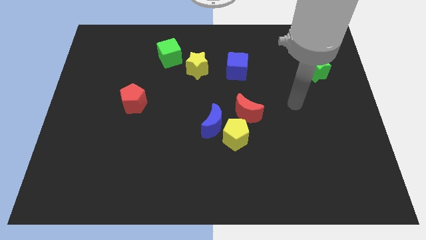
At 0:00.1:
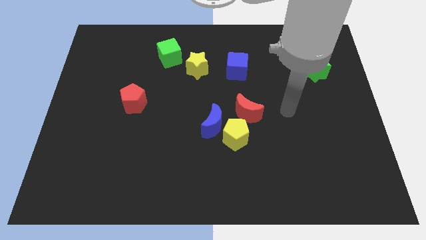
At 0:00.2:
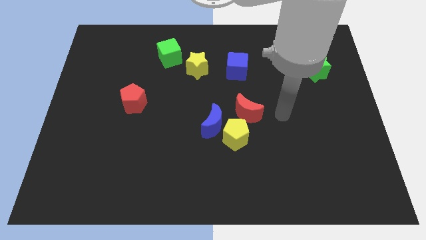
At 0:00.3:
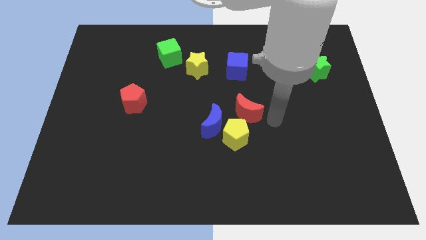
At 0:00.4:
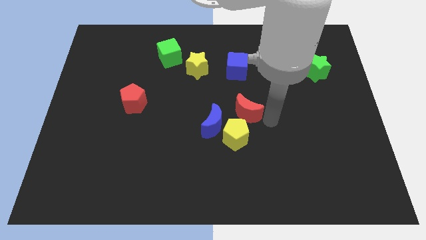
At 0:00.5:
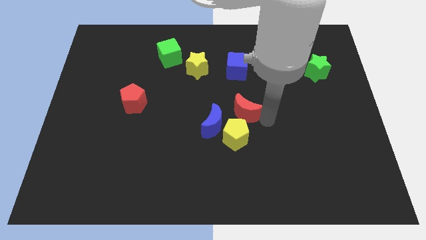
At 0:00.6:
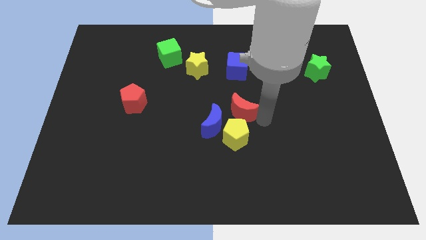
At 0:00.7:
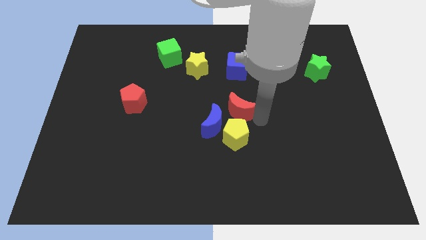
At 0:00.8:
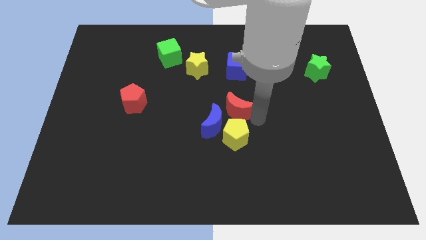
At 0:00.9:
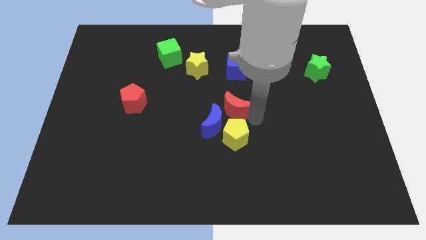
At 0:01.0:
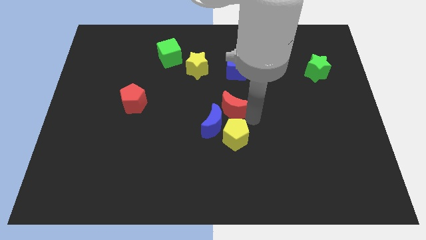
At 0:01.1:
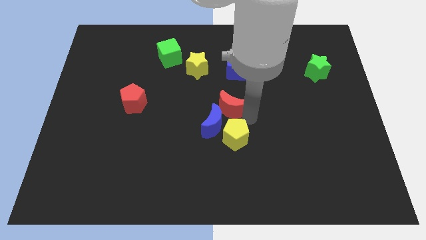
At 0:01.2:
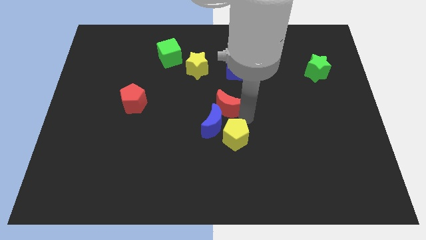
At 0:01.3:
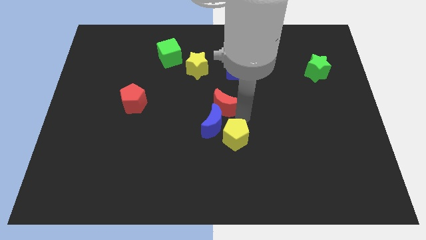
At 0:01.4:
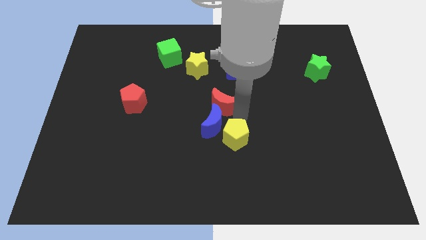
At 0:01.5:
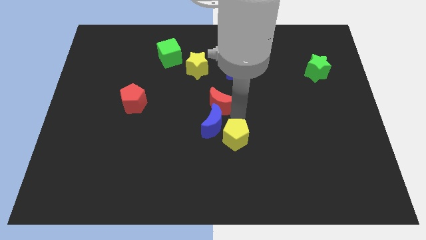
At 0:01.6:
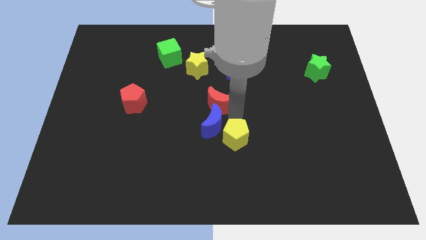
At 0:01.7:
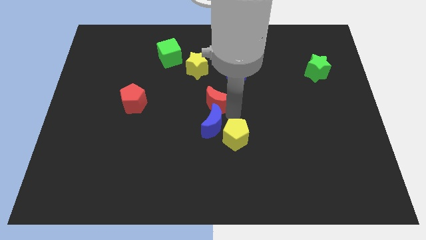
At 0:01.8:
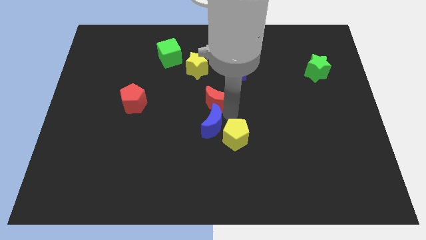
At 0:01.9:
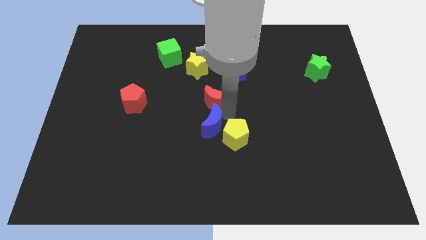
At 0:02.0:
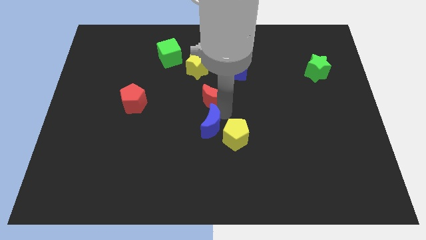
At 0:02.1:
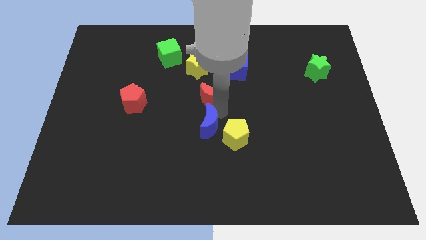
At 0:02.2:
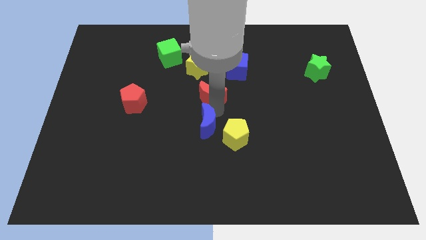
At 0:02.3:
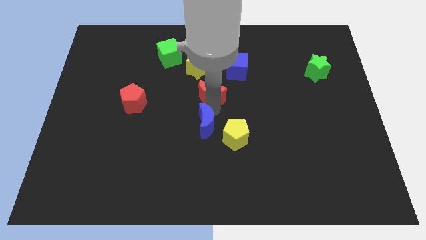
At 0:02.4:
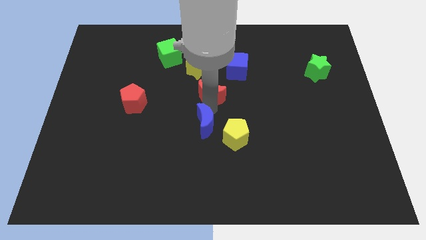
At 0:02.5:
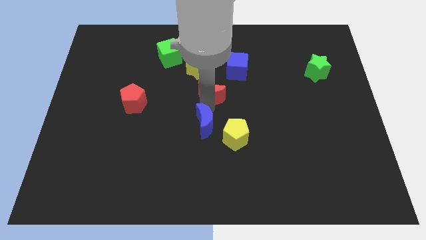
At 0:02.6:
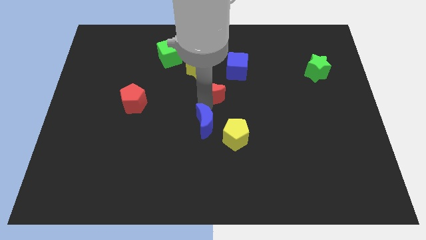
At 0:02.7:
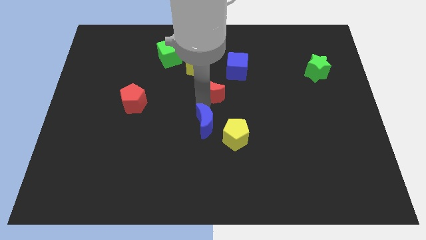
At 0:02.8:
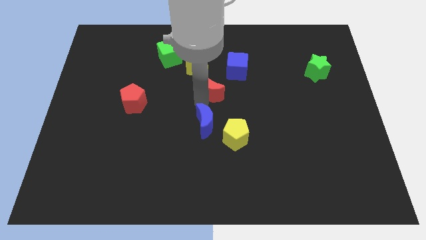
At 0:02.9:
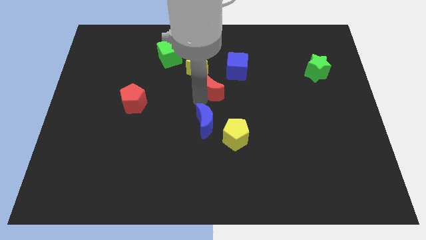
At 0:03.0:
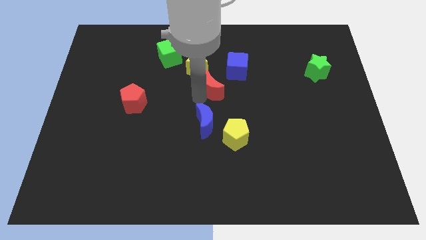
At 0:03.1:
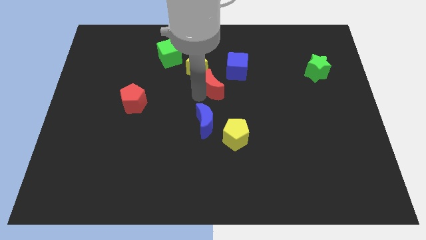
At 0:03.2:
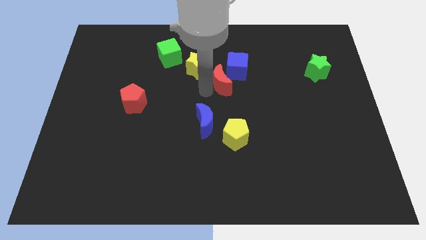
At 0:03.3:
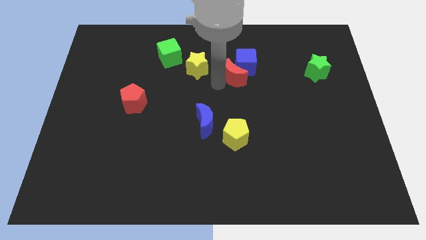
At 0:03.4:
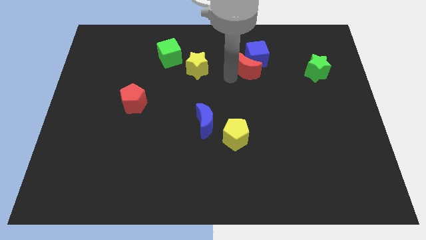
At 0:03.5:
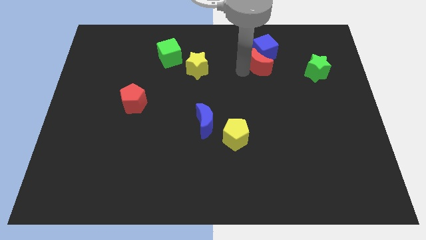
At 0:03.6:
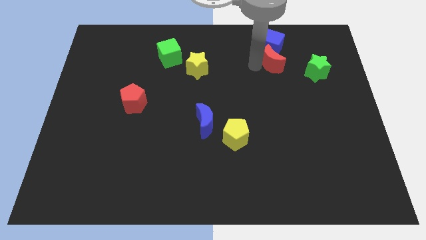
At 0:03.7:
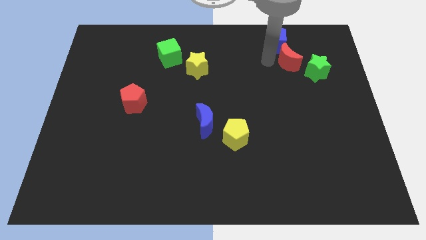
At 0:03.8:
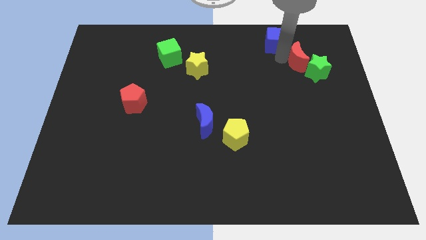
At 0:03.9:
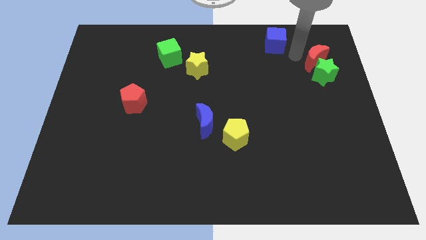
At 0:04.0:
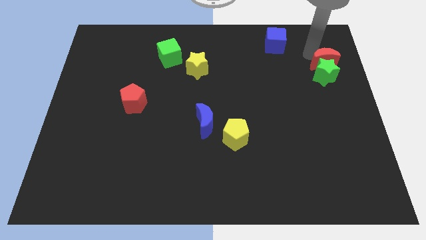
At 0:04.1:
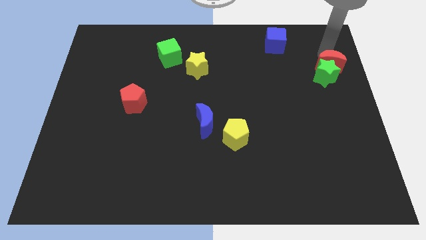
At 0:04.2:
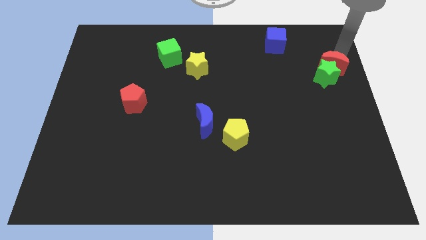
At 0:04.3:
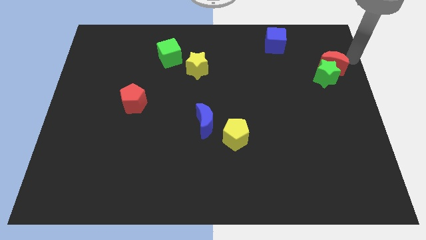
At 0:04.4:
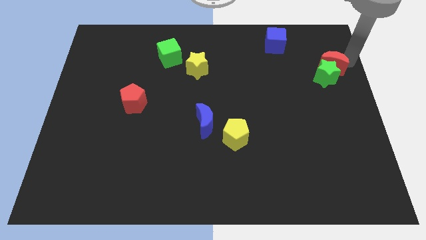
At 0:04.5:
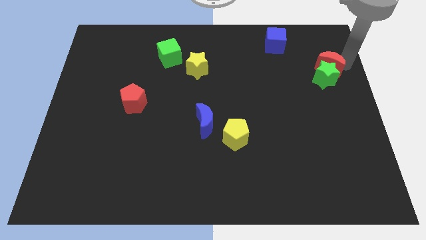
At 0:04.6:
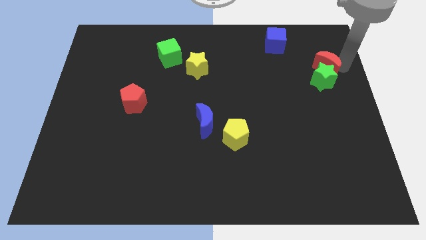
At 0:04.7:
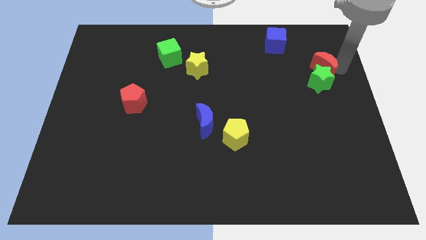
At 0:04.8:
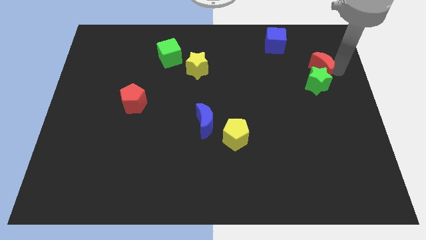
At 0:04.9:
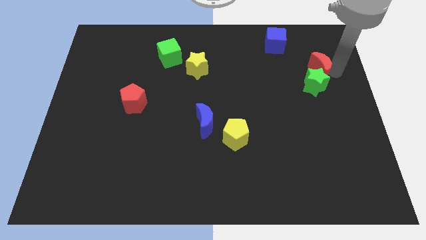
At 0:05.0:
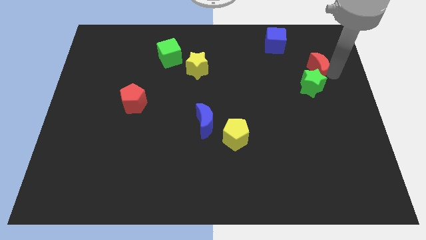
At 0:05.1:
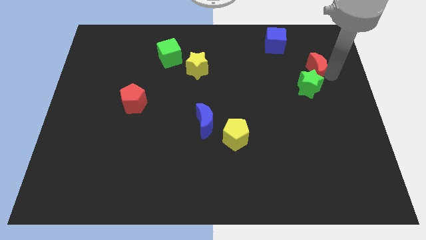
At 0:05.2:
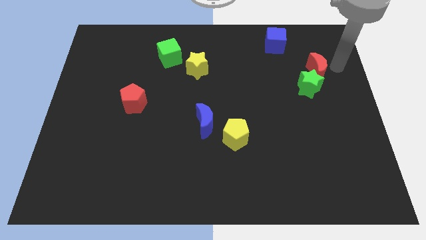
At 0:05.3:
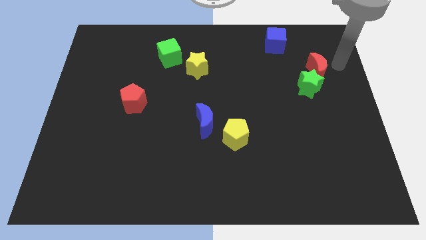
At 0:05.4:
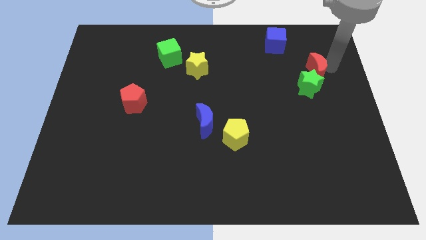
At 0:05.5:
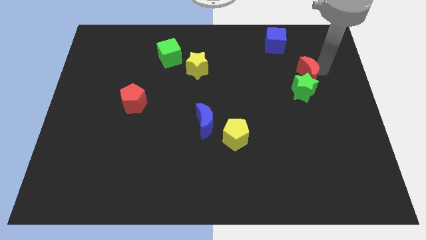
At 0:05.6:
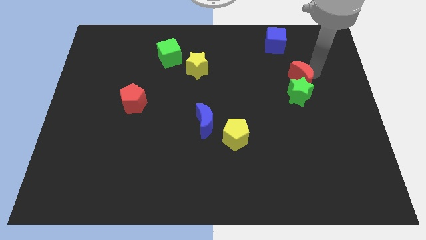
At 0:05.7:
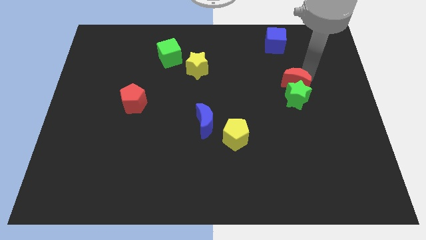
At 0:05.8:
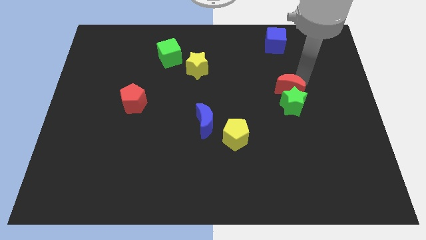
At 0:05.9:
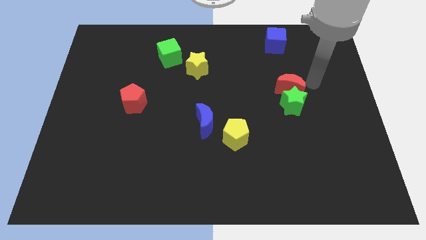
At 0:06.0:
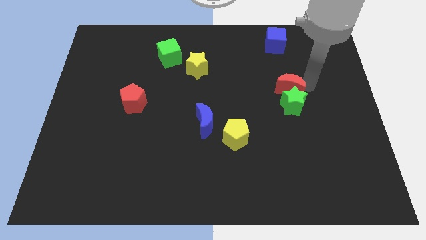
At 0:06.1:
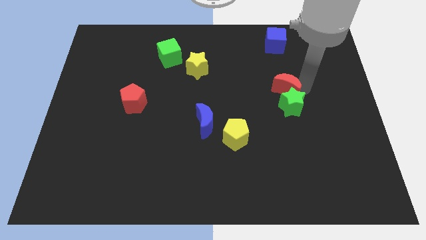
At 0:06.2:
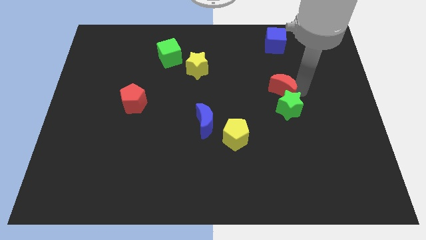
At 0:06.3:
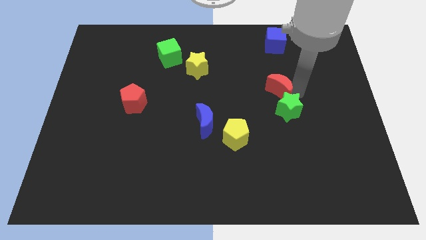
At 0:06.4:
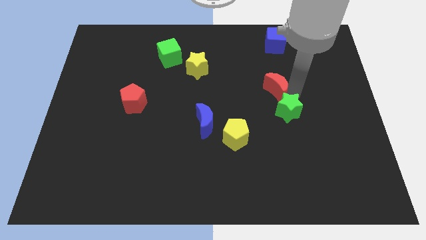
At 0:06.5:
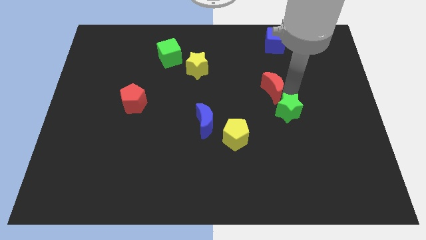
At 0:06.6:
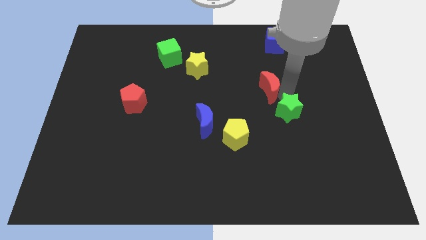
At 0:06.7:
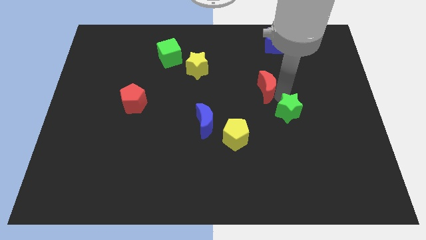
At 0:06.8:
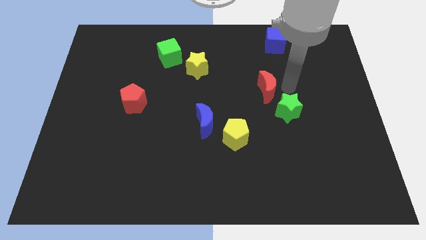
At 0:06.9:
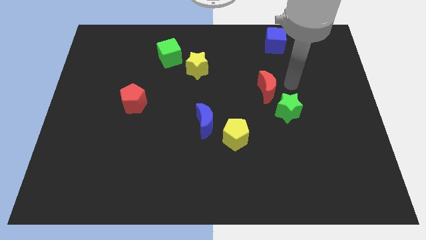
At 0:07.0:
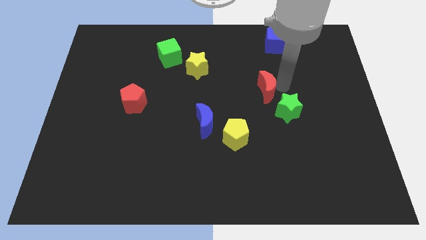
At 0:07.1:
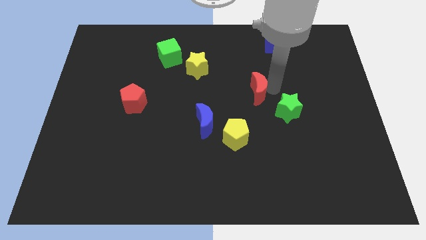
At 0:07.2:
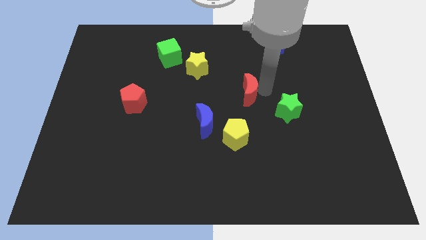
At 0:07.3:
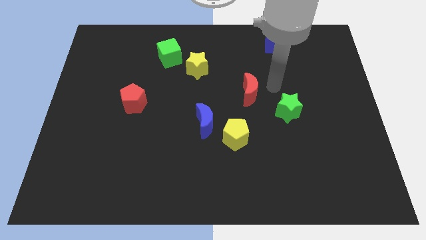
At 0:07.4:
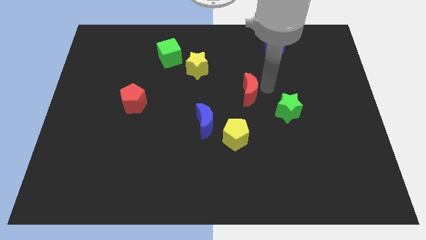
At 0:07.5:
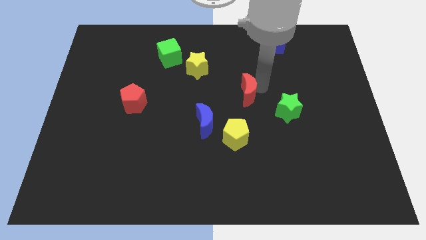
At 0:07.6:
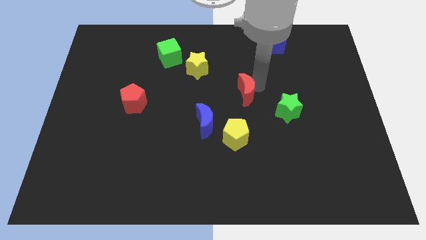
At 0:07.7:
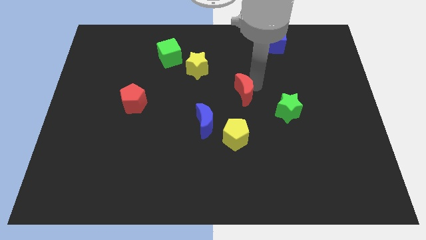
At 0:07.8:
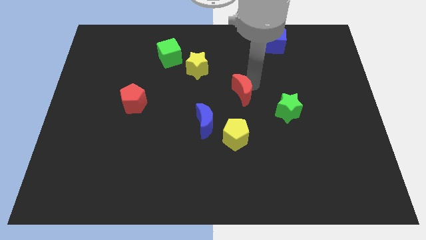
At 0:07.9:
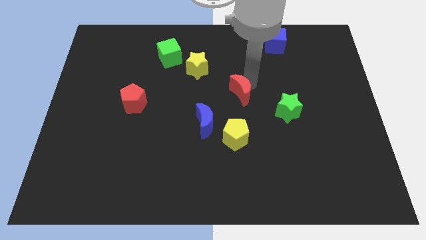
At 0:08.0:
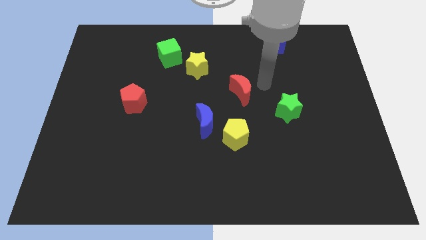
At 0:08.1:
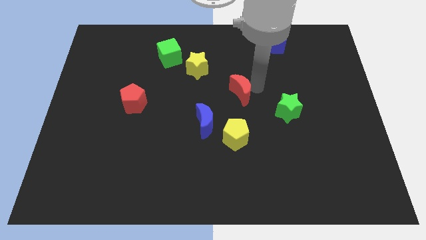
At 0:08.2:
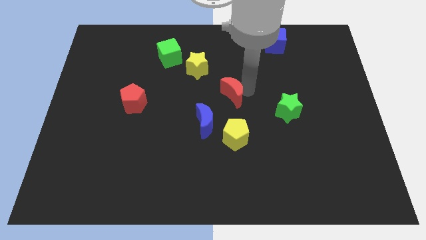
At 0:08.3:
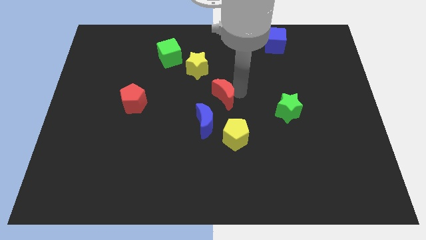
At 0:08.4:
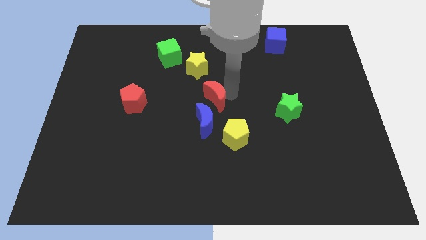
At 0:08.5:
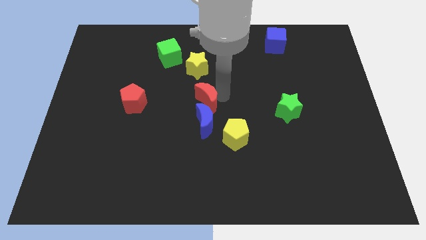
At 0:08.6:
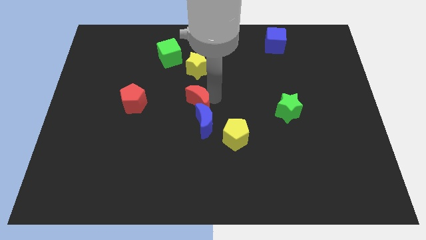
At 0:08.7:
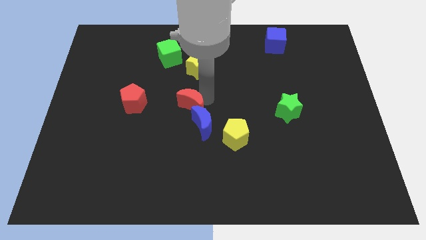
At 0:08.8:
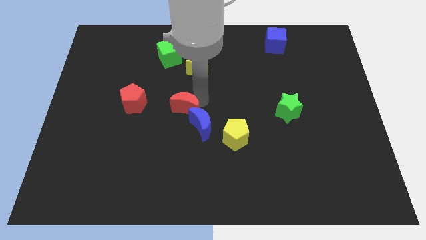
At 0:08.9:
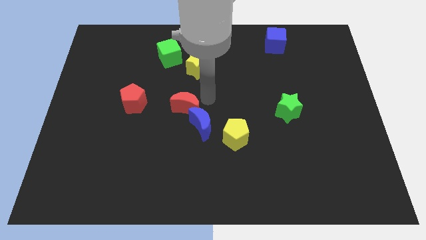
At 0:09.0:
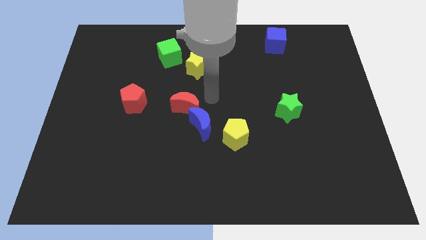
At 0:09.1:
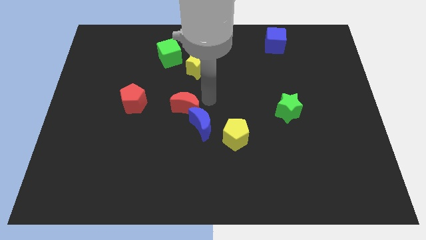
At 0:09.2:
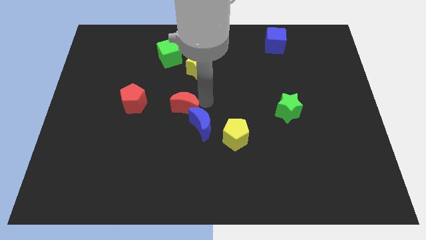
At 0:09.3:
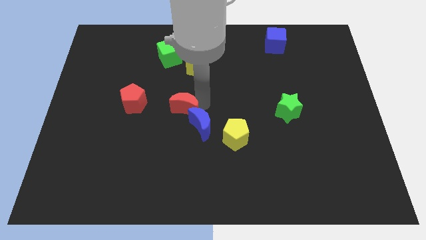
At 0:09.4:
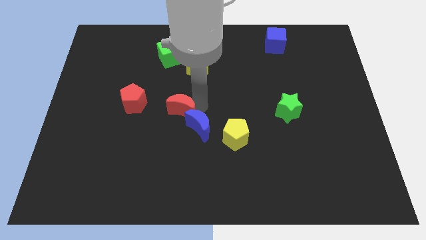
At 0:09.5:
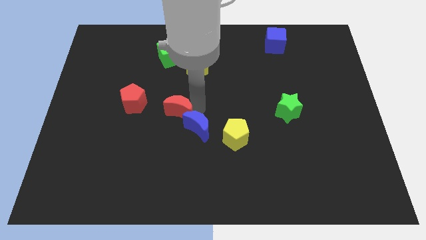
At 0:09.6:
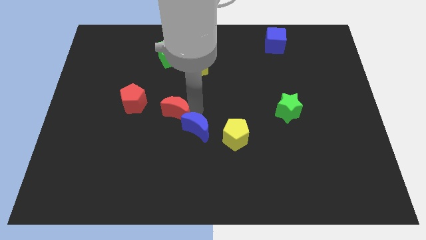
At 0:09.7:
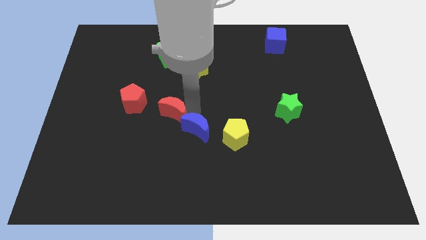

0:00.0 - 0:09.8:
put the red moon to the bottom right side of the red pentagon
